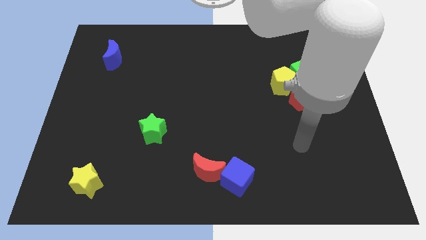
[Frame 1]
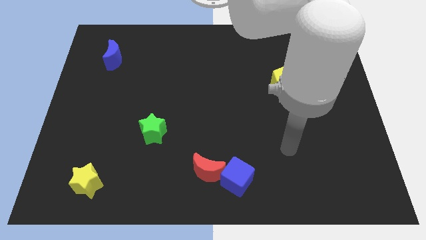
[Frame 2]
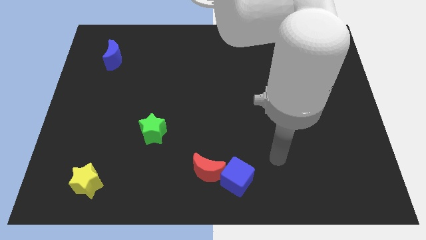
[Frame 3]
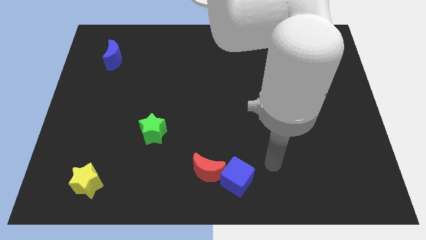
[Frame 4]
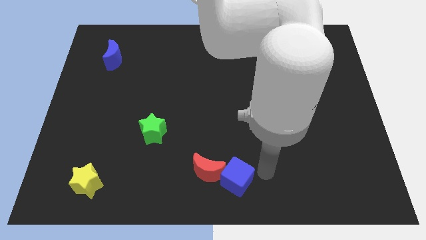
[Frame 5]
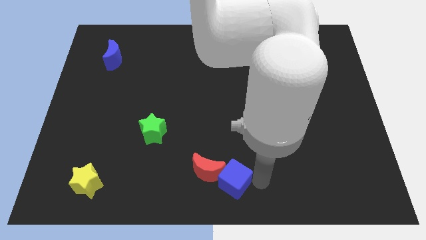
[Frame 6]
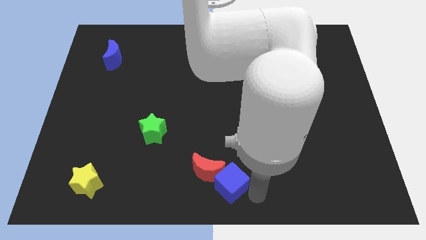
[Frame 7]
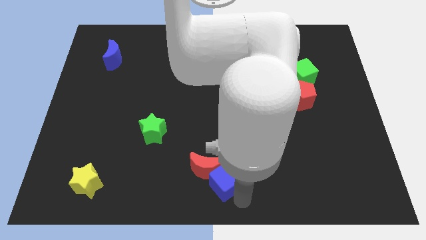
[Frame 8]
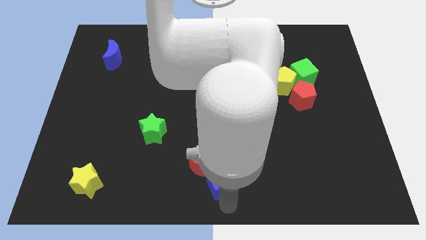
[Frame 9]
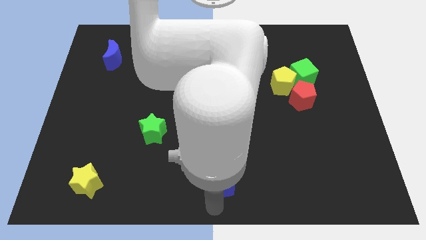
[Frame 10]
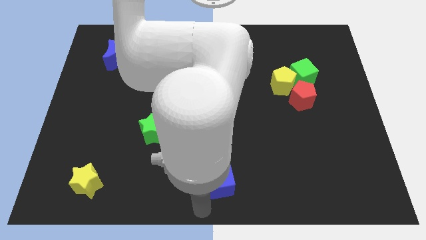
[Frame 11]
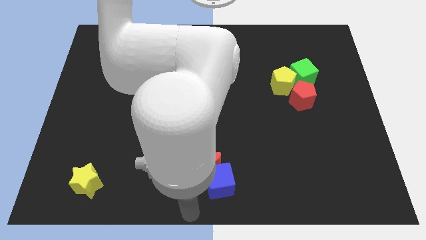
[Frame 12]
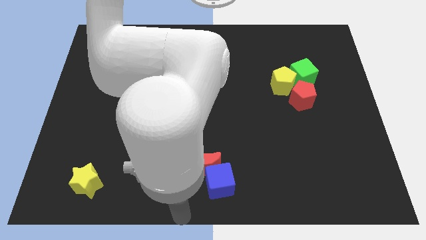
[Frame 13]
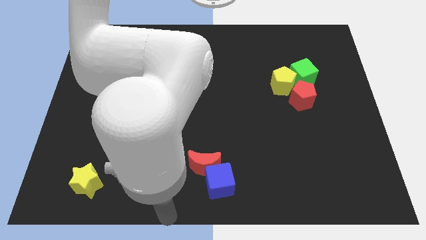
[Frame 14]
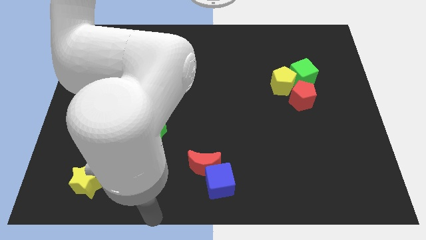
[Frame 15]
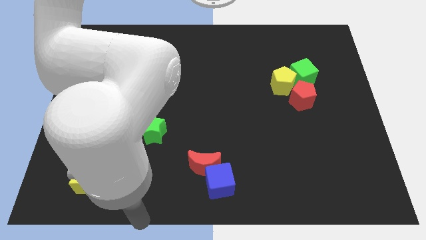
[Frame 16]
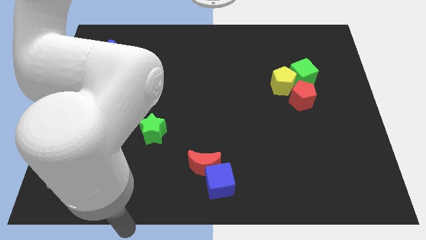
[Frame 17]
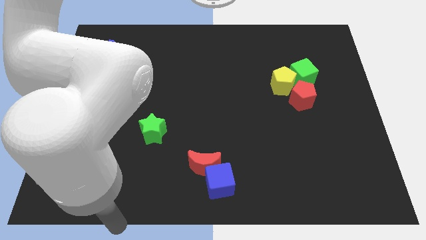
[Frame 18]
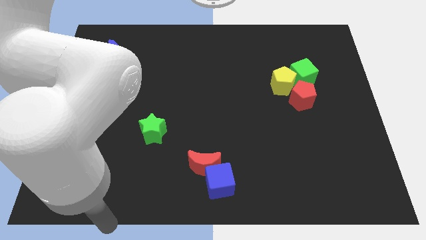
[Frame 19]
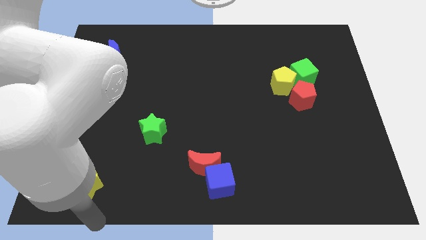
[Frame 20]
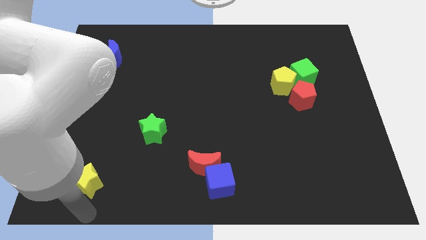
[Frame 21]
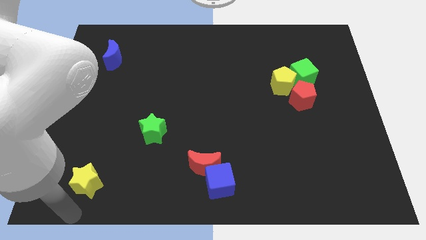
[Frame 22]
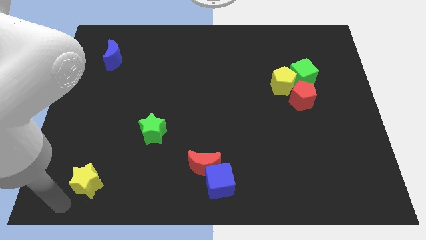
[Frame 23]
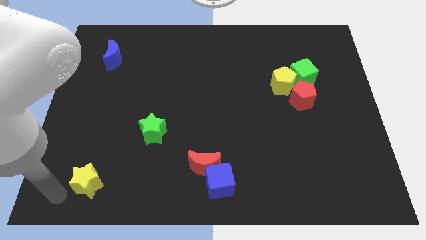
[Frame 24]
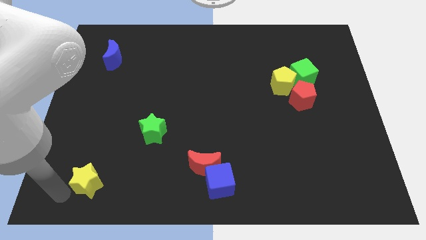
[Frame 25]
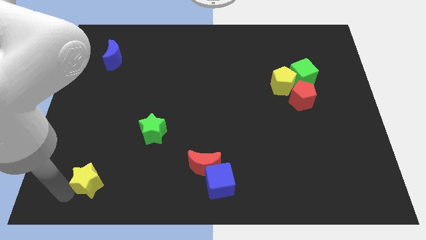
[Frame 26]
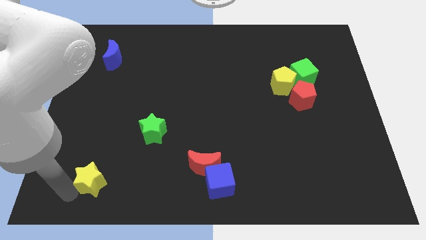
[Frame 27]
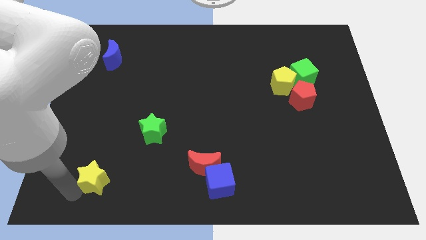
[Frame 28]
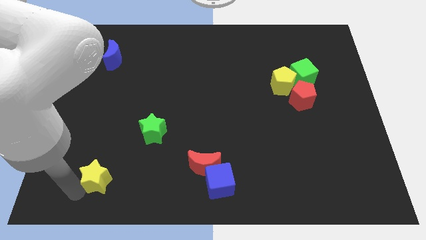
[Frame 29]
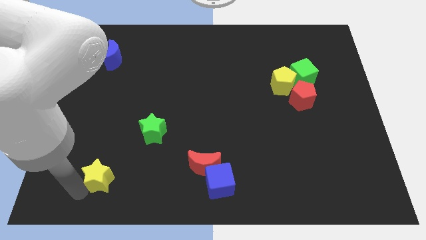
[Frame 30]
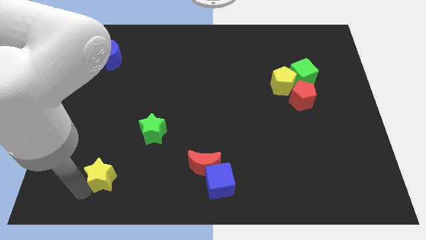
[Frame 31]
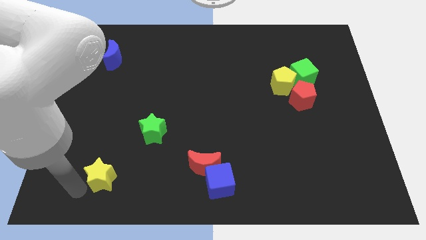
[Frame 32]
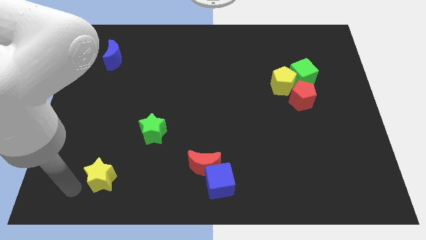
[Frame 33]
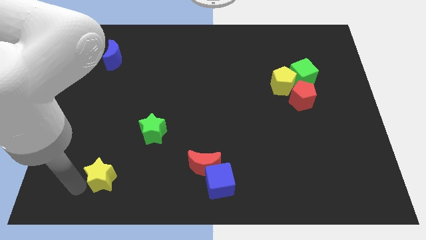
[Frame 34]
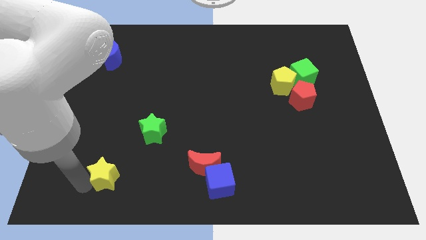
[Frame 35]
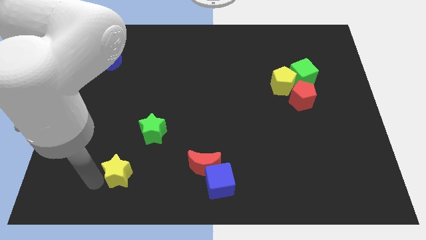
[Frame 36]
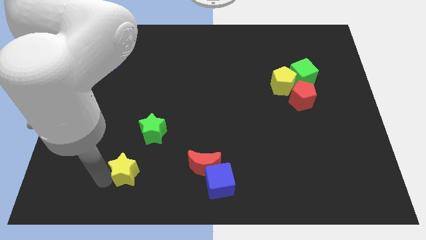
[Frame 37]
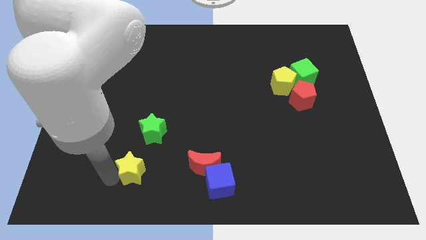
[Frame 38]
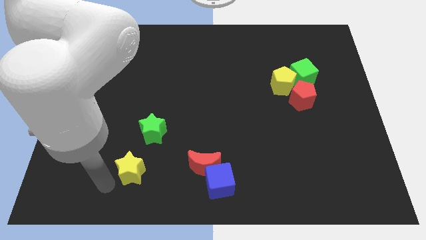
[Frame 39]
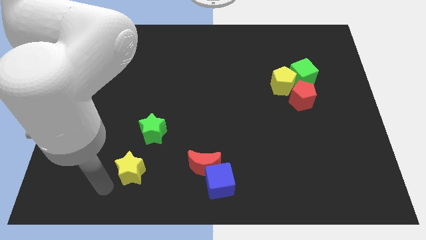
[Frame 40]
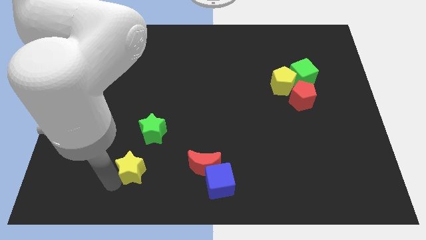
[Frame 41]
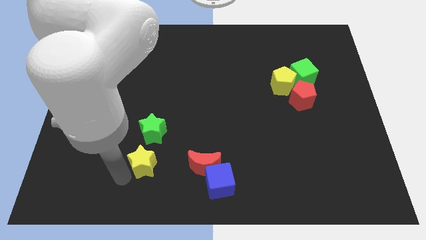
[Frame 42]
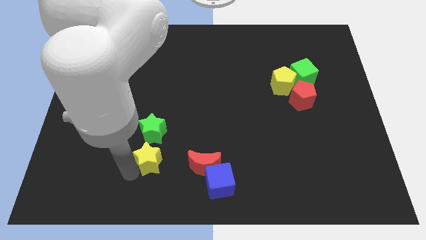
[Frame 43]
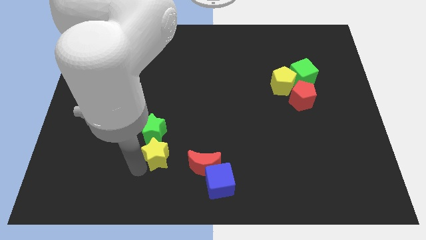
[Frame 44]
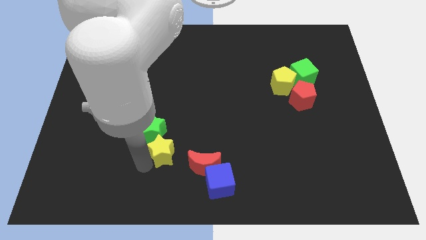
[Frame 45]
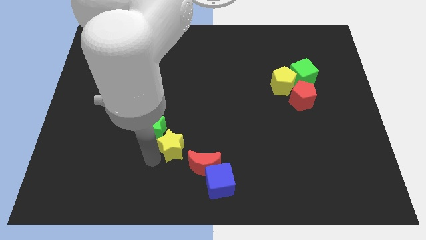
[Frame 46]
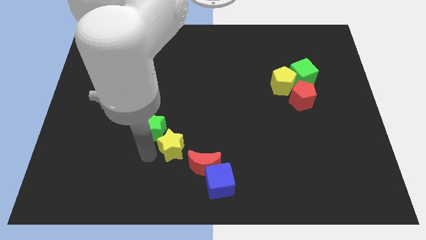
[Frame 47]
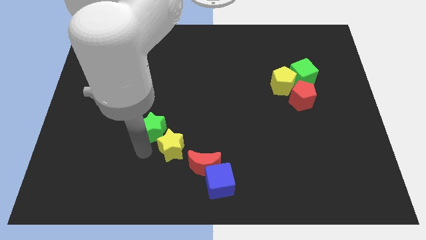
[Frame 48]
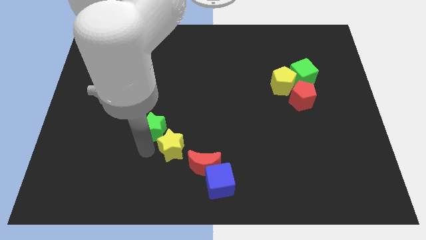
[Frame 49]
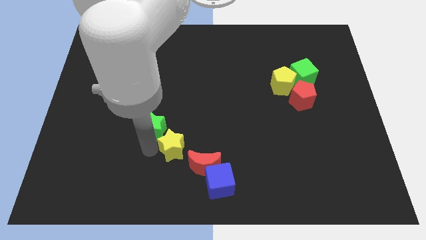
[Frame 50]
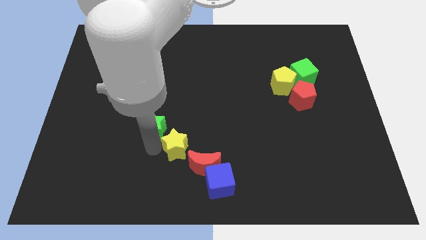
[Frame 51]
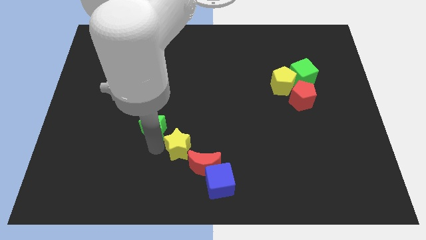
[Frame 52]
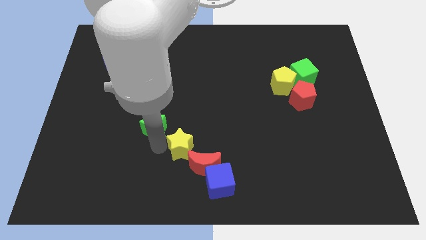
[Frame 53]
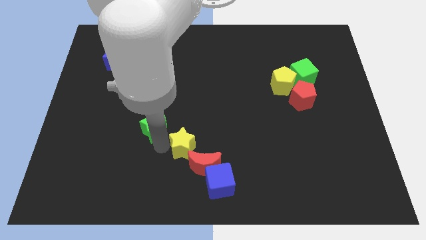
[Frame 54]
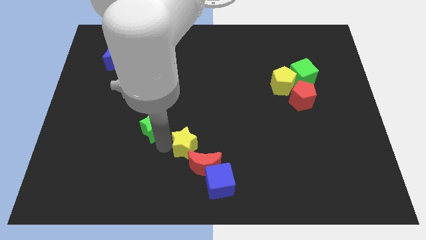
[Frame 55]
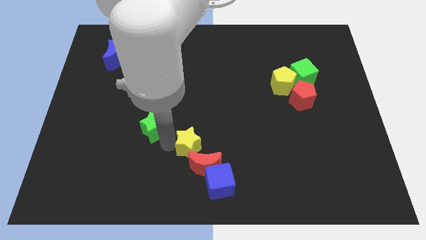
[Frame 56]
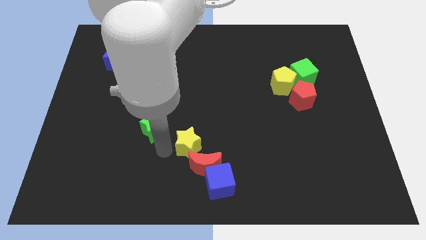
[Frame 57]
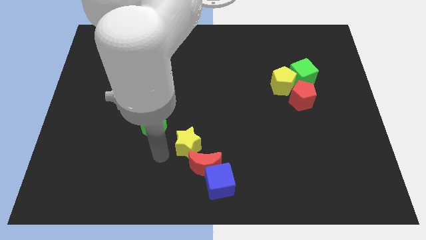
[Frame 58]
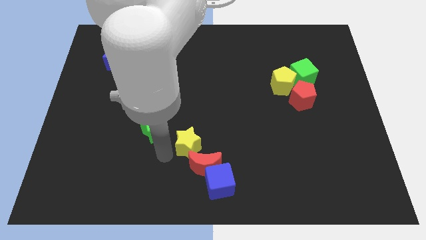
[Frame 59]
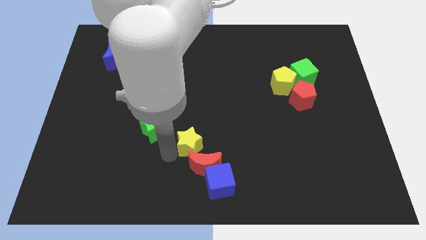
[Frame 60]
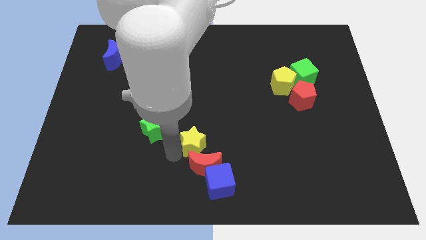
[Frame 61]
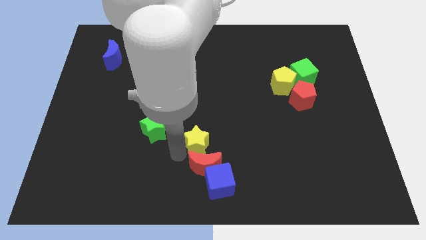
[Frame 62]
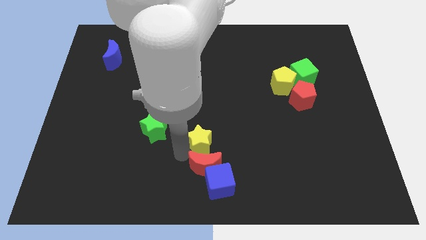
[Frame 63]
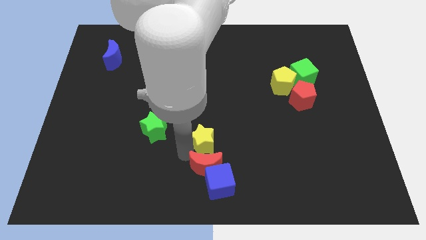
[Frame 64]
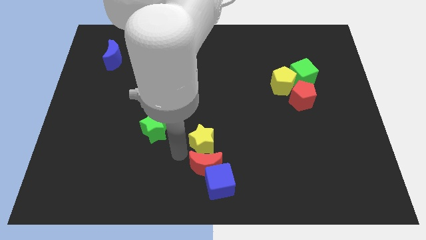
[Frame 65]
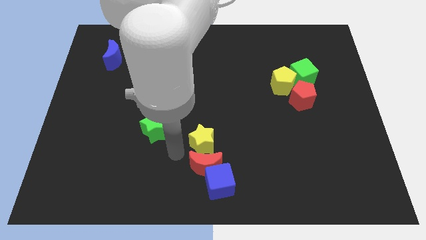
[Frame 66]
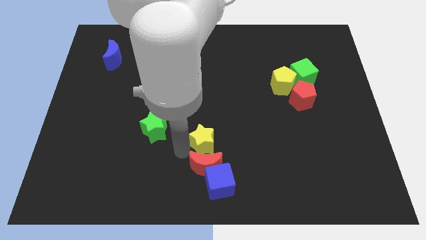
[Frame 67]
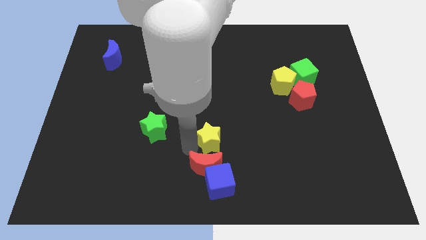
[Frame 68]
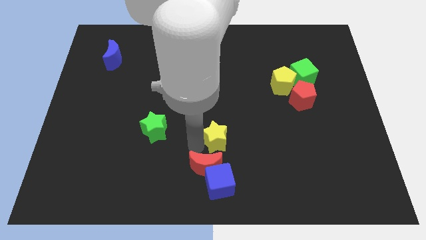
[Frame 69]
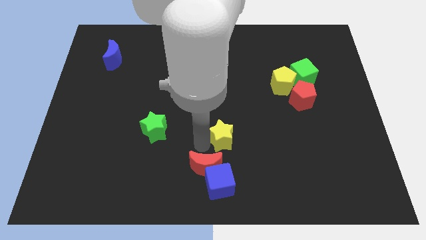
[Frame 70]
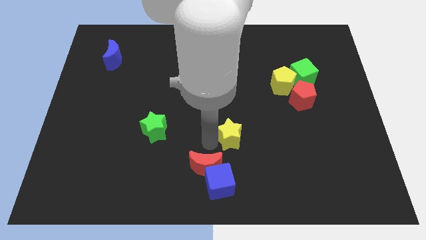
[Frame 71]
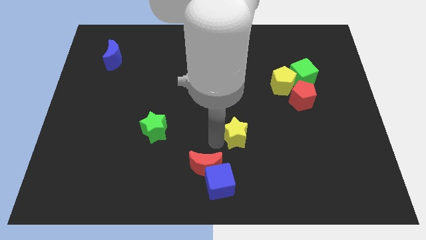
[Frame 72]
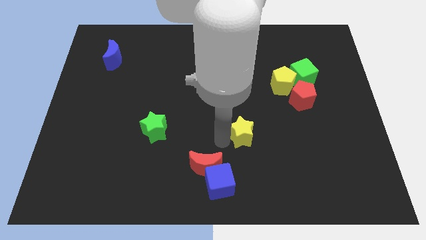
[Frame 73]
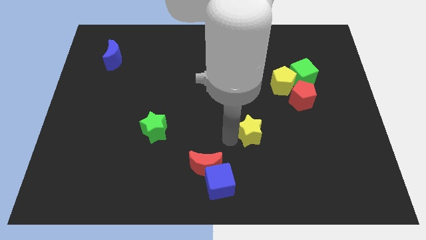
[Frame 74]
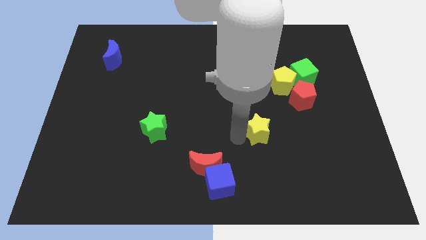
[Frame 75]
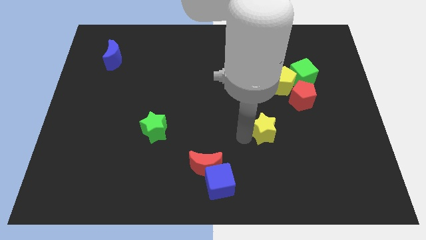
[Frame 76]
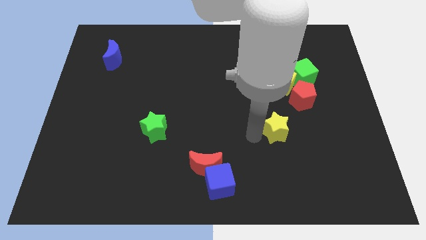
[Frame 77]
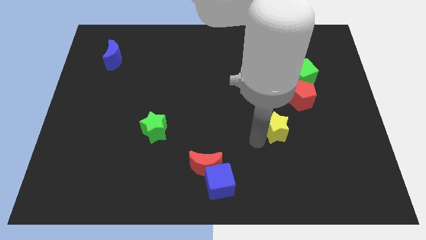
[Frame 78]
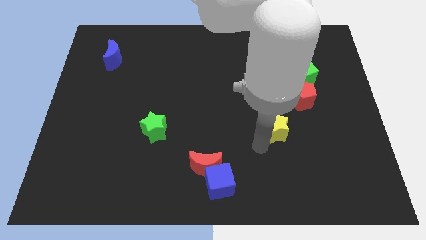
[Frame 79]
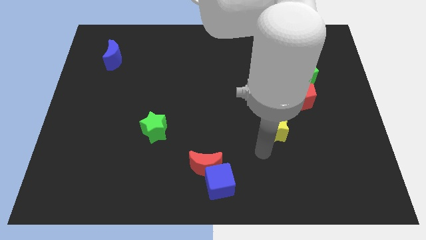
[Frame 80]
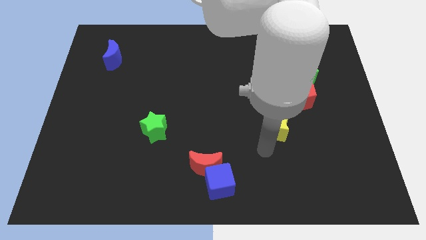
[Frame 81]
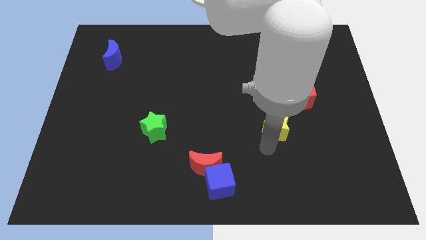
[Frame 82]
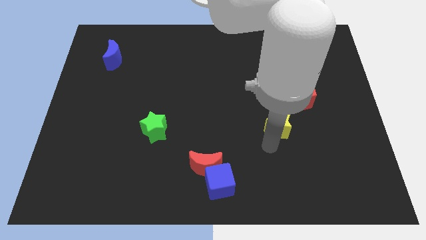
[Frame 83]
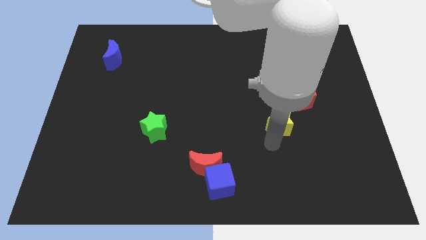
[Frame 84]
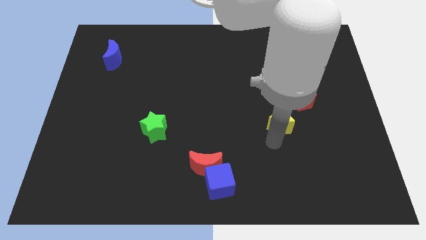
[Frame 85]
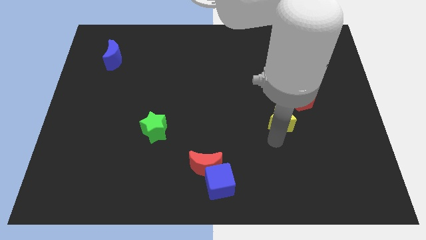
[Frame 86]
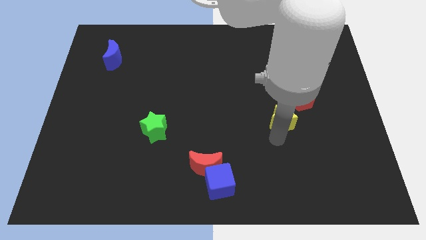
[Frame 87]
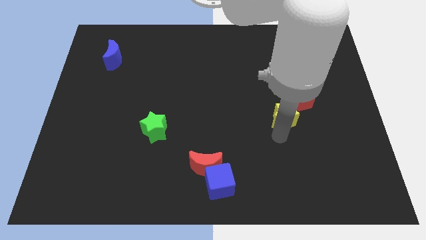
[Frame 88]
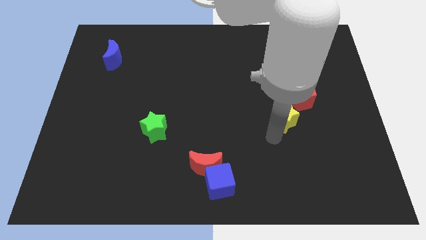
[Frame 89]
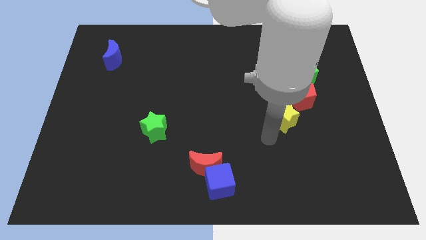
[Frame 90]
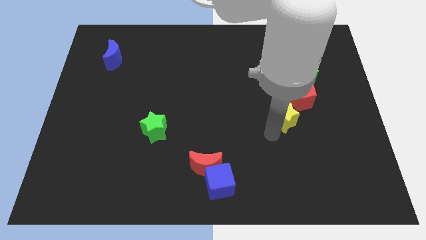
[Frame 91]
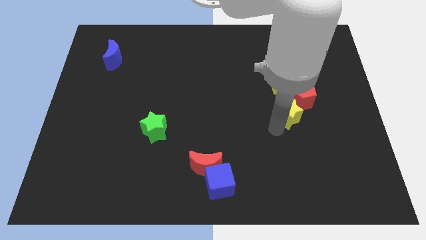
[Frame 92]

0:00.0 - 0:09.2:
put the yellow star to the red pentagon
